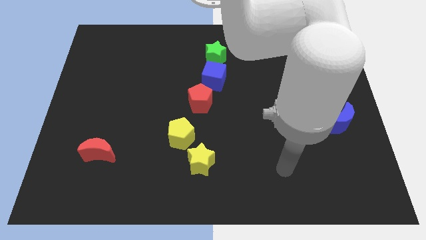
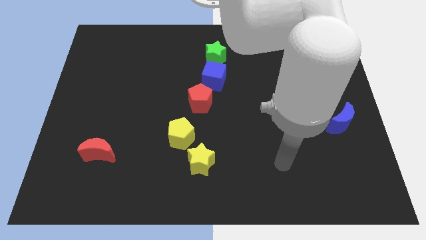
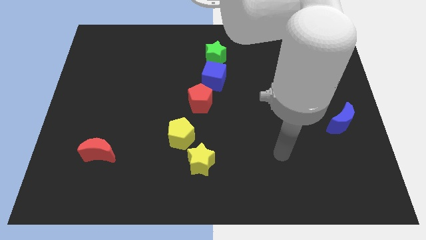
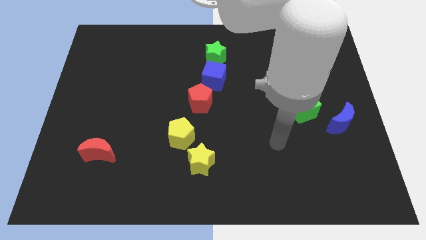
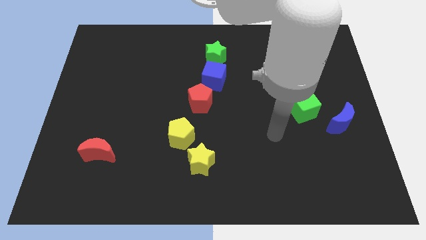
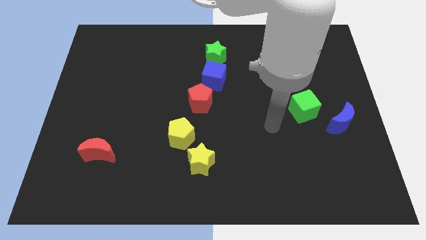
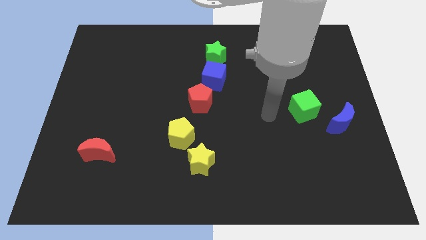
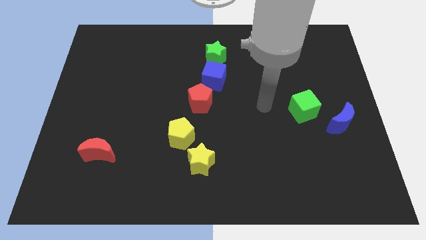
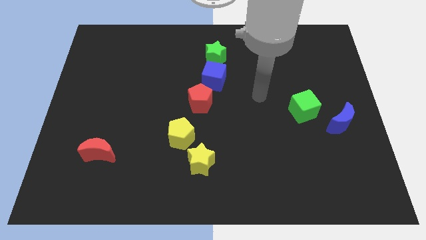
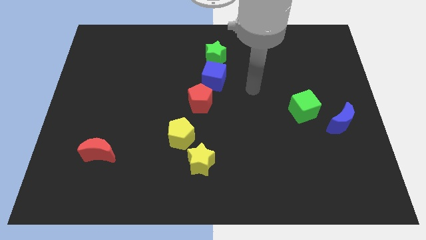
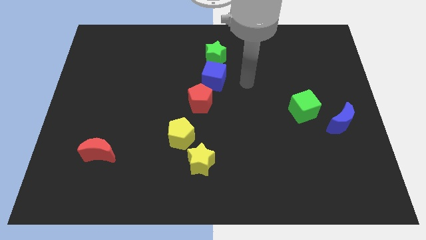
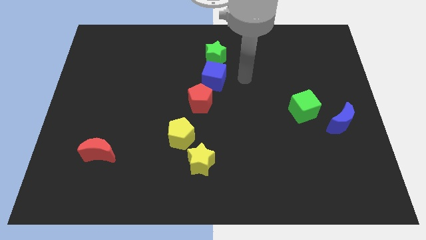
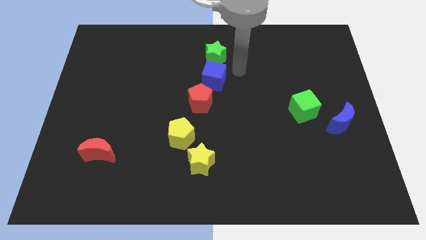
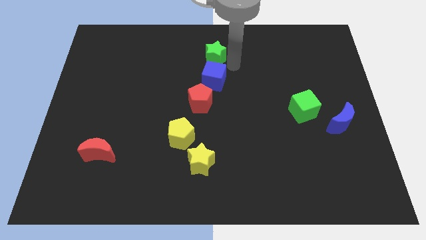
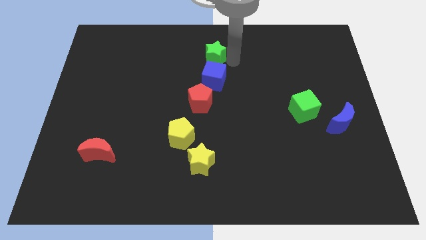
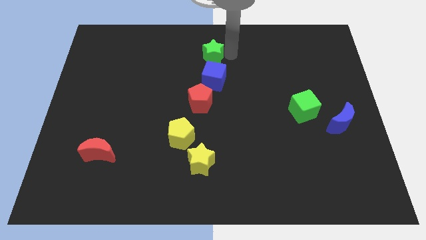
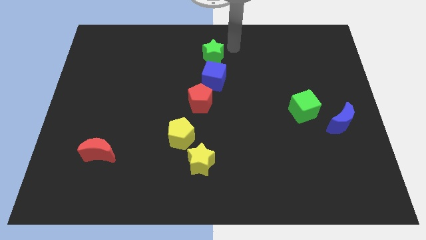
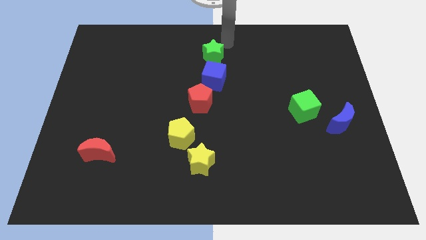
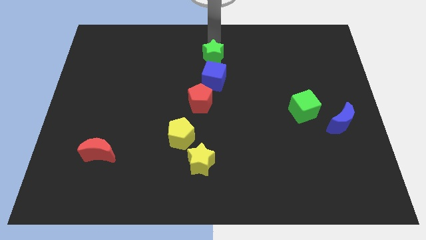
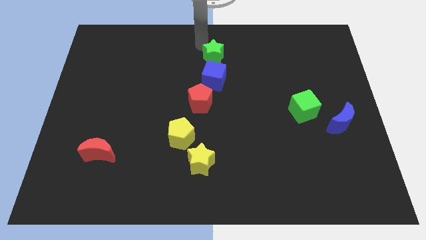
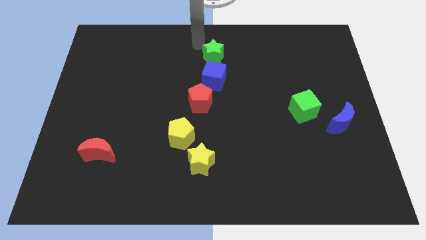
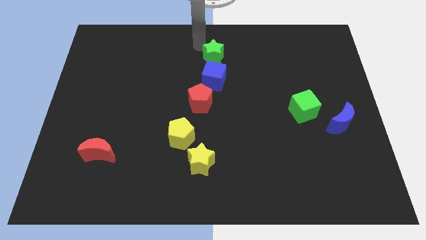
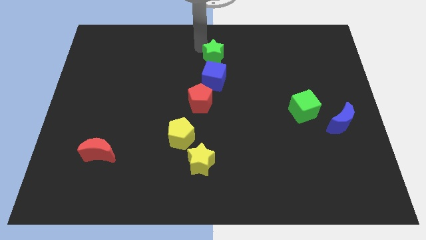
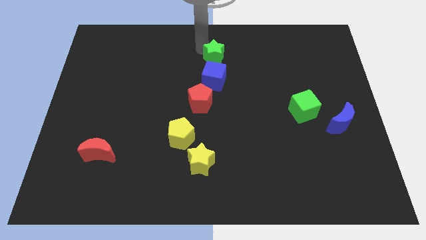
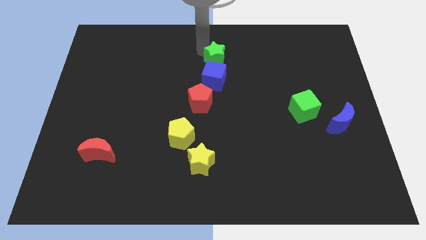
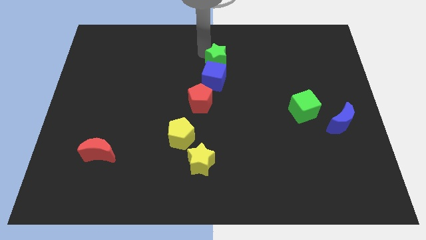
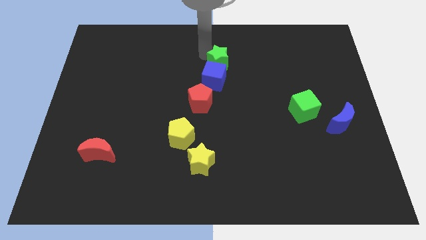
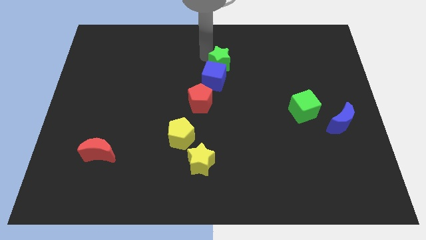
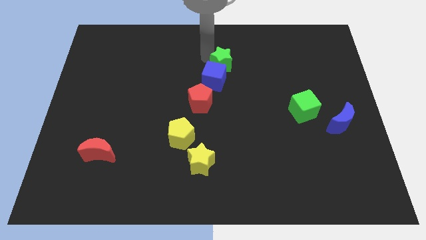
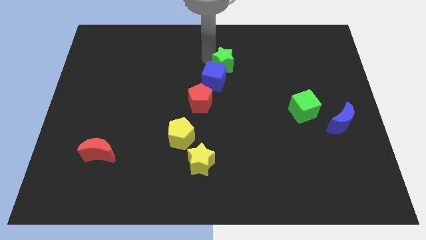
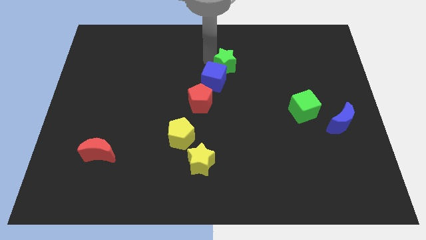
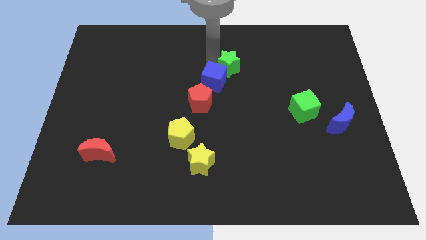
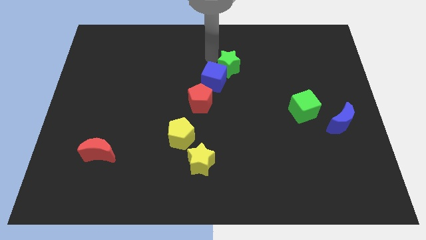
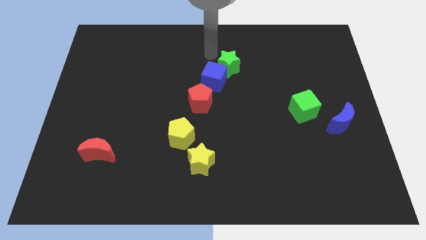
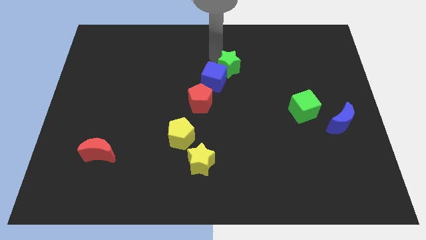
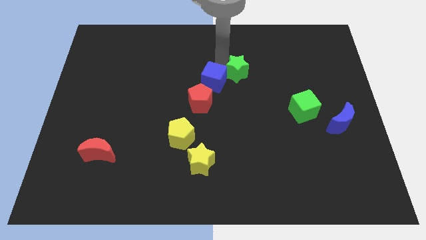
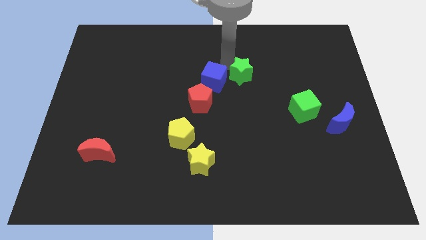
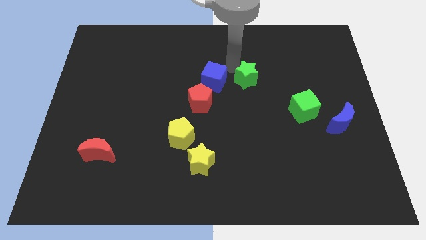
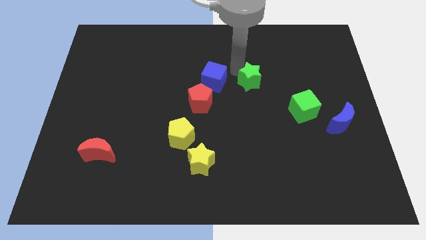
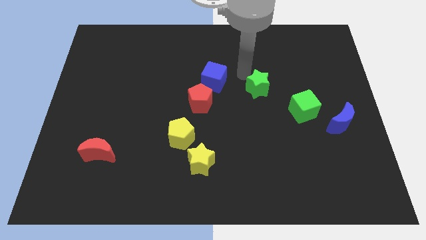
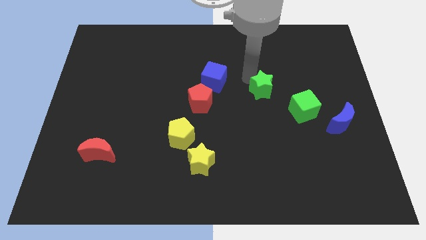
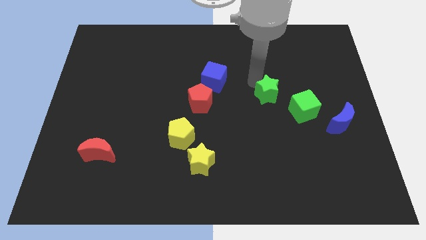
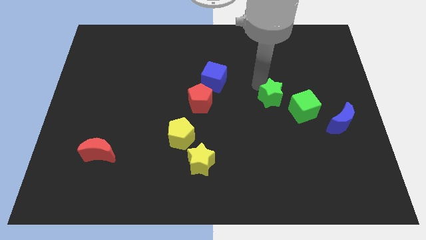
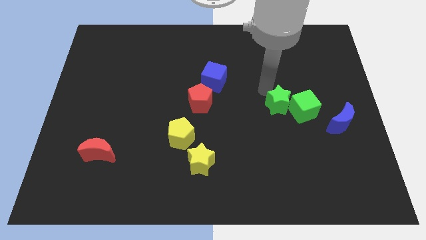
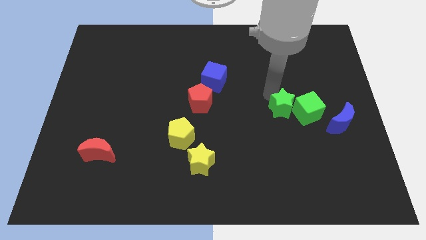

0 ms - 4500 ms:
slide the green star just left of the blue moon

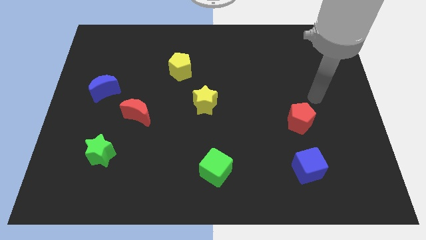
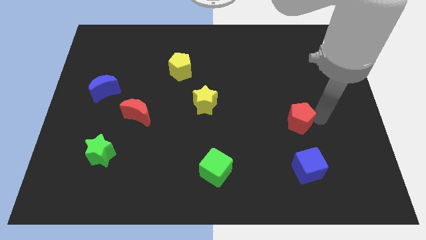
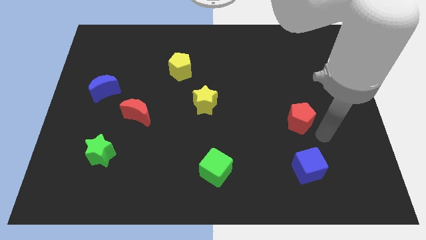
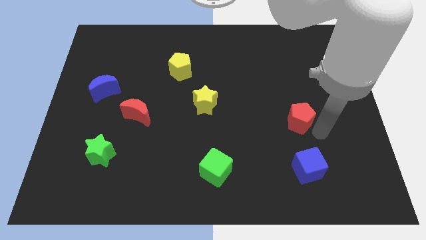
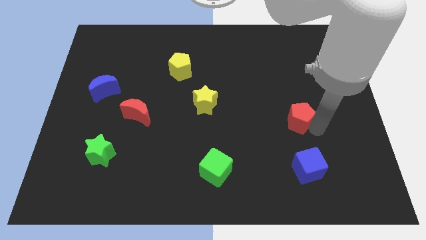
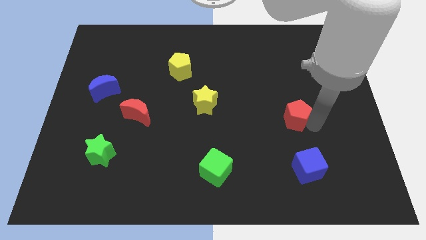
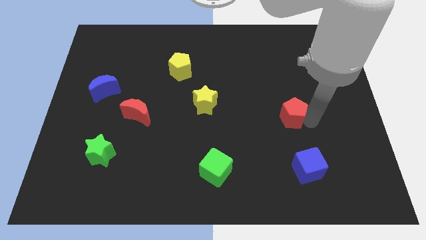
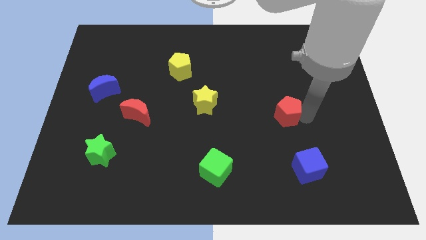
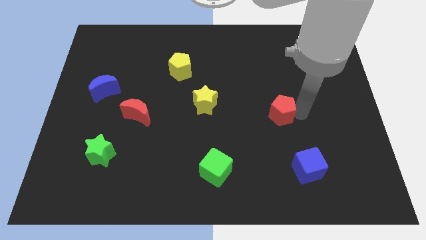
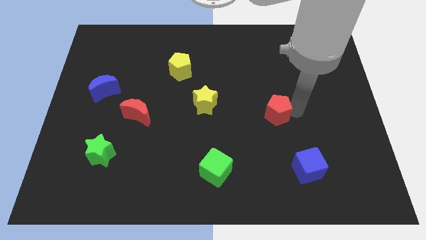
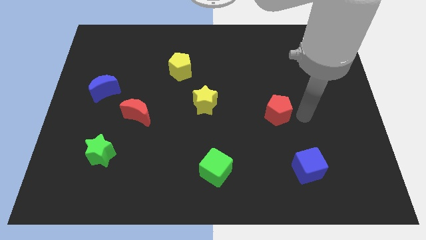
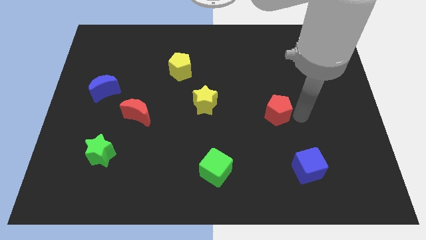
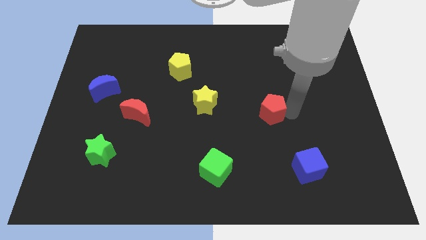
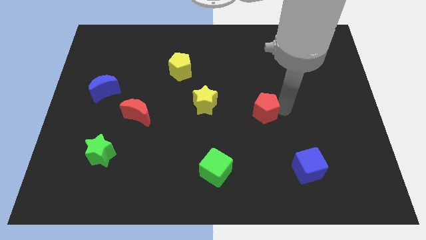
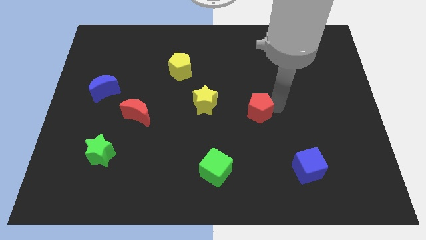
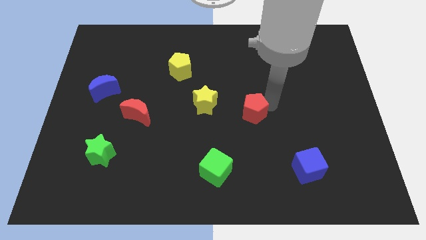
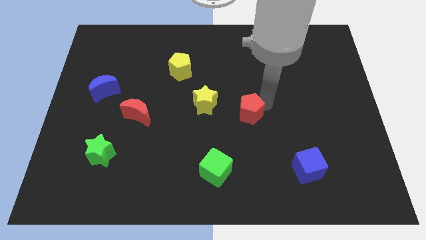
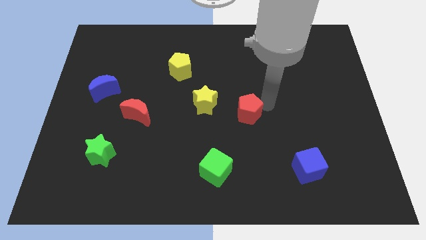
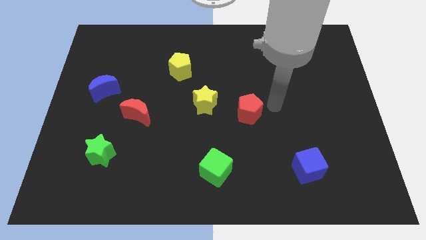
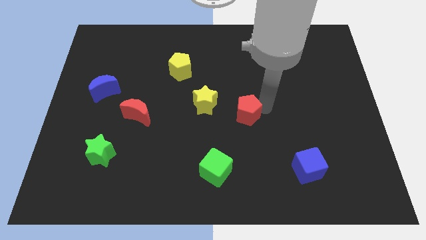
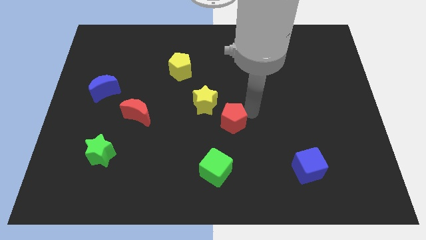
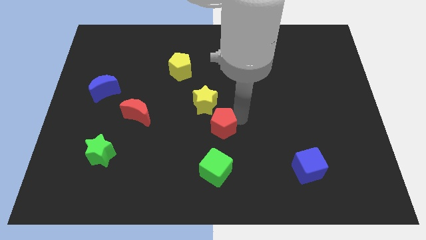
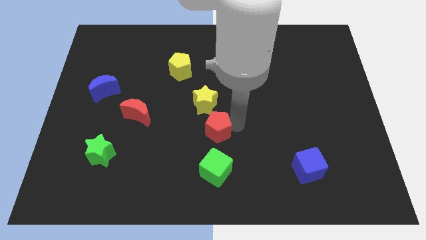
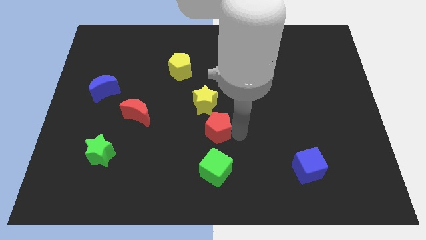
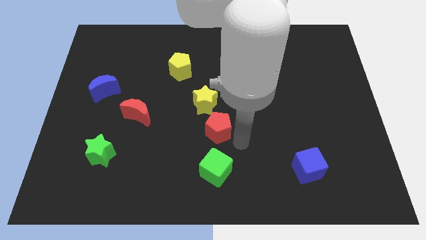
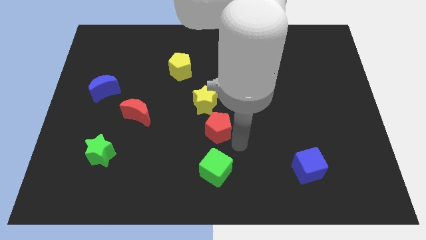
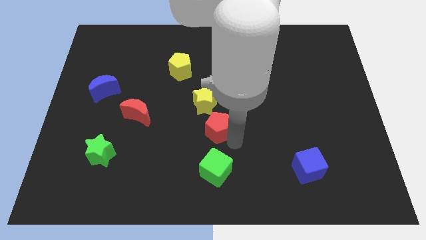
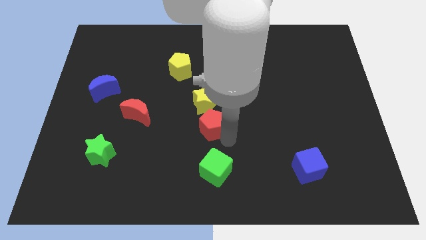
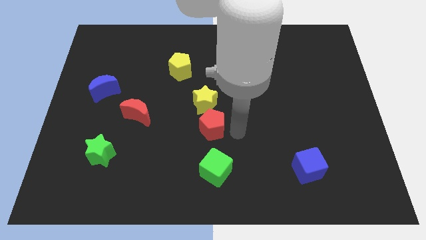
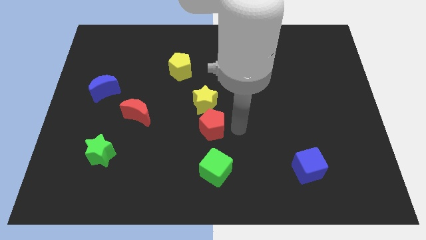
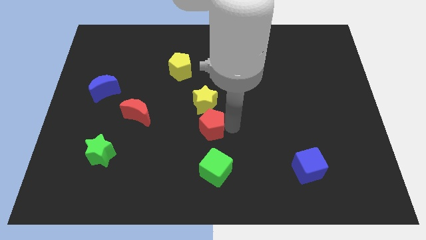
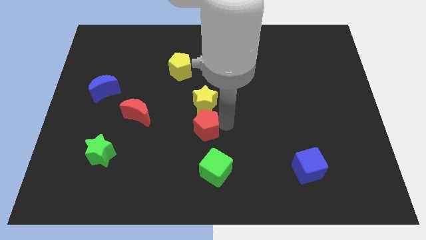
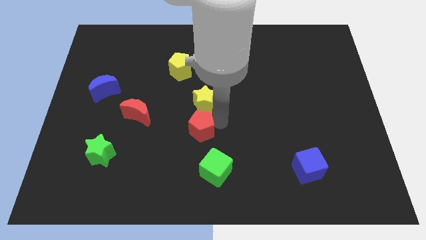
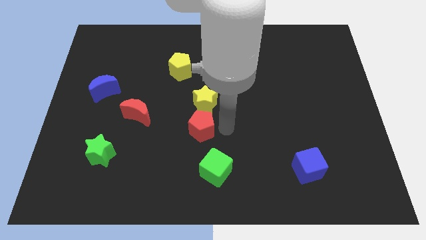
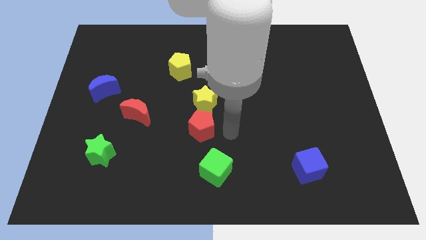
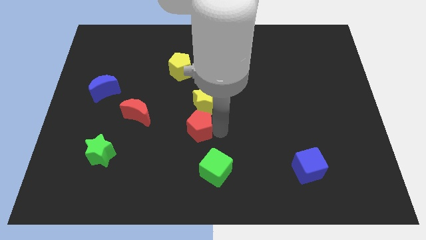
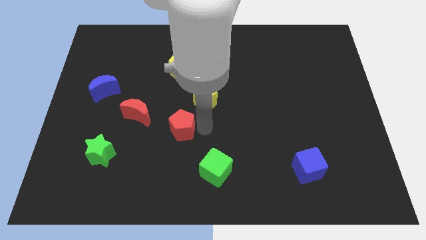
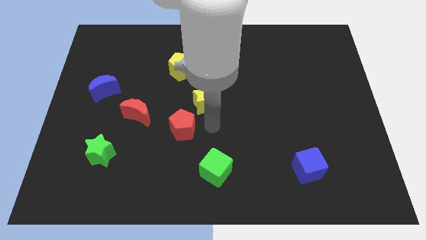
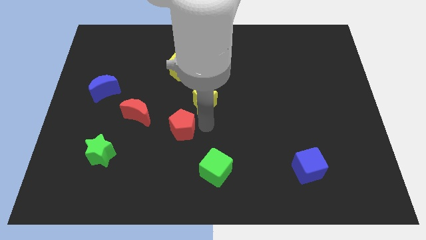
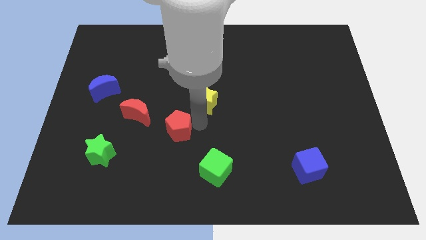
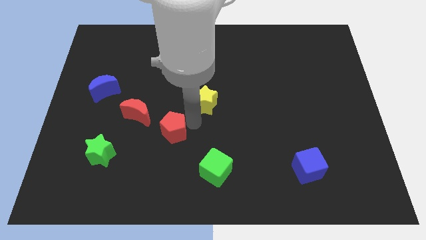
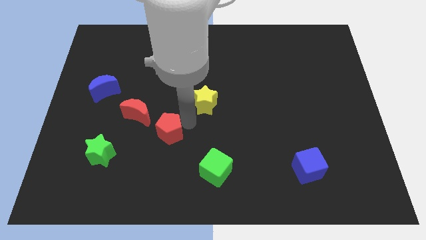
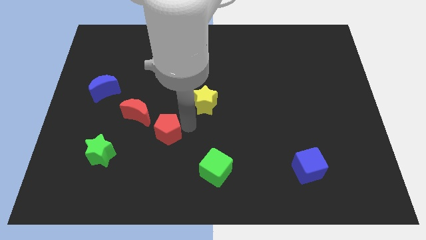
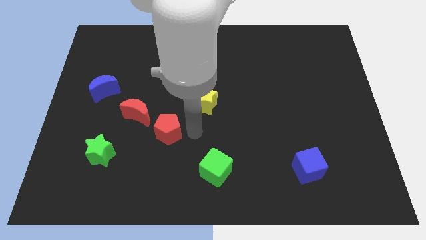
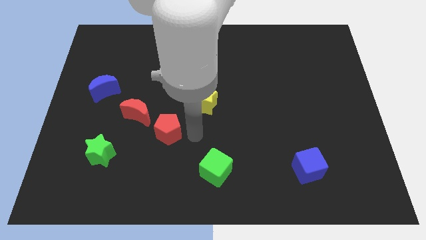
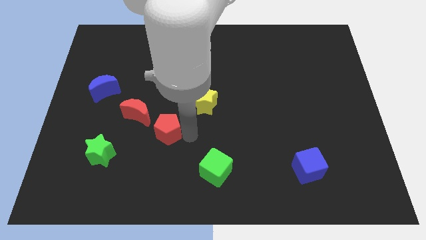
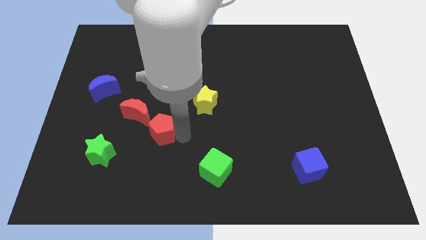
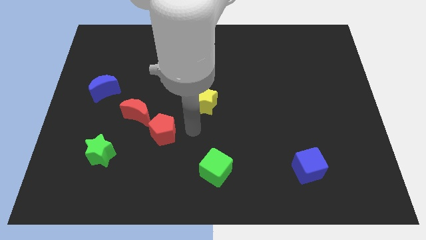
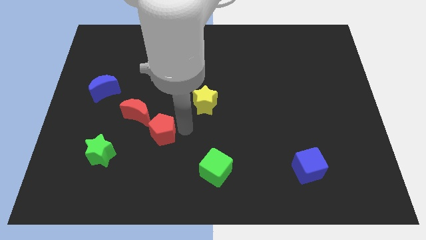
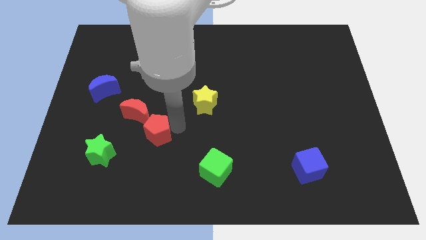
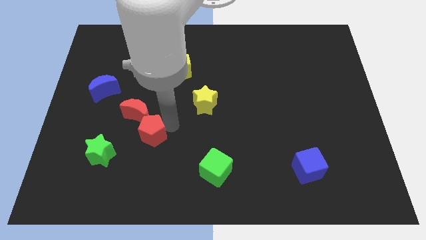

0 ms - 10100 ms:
push the red pentagon to the top right of the green star
